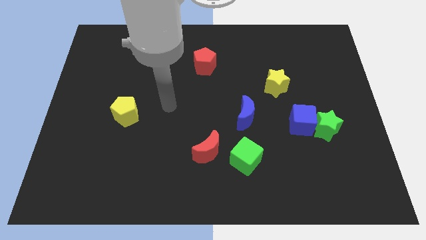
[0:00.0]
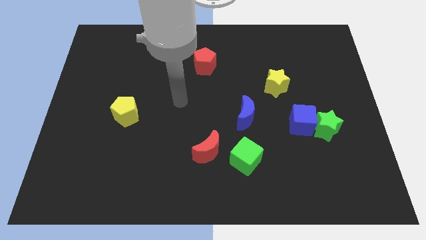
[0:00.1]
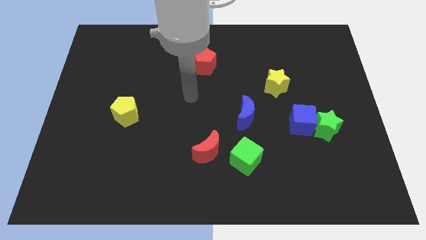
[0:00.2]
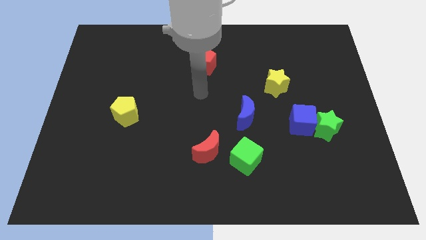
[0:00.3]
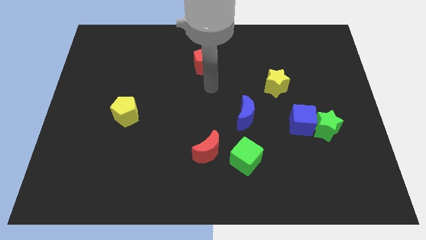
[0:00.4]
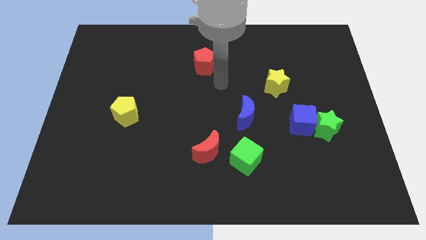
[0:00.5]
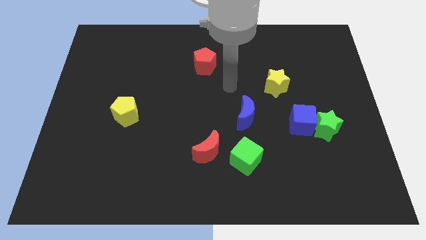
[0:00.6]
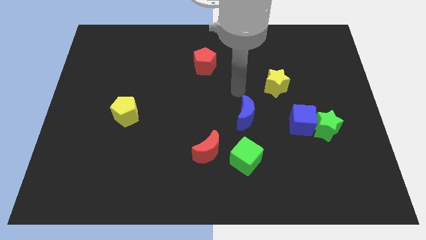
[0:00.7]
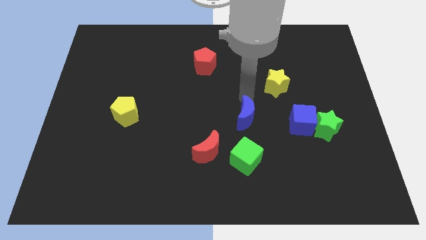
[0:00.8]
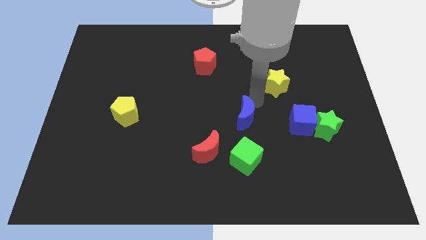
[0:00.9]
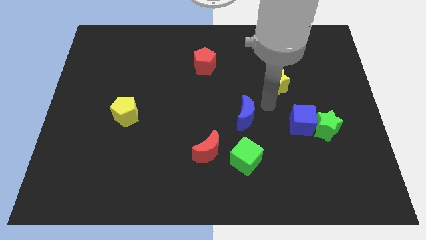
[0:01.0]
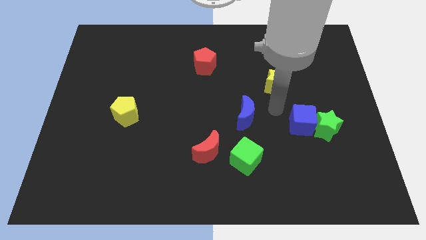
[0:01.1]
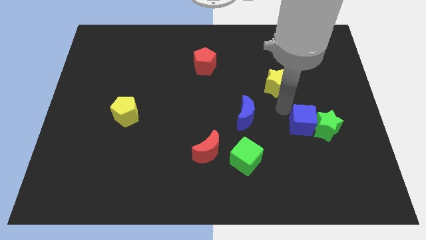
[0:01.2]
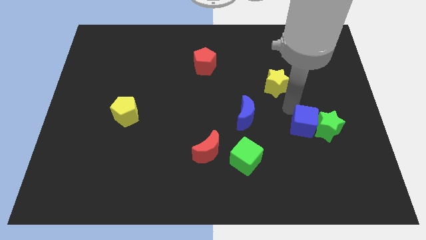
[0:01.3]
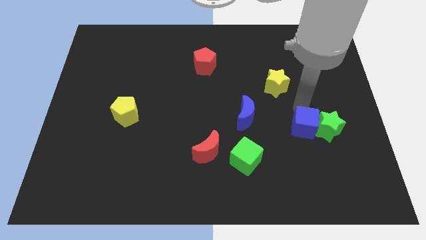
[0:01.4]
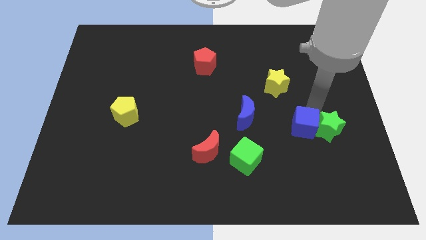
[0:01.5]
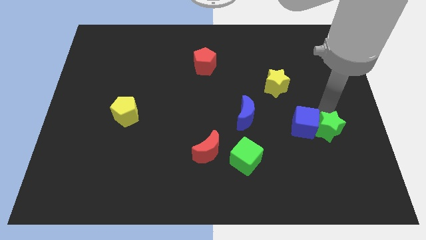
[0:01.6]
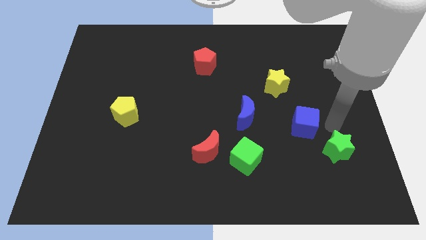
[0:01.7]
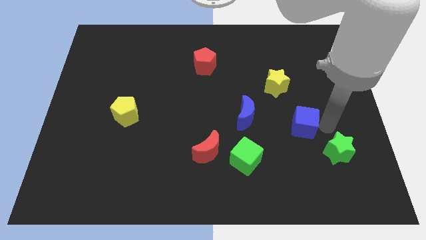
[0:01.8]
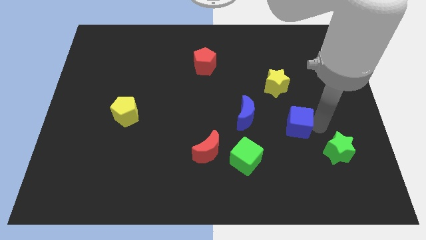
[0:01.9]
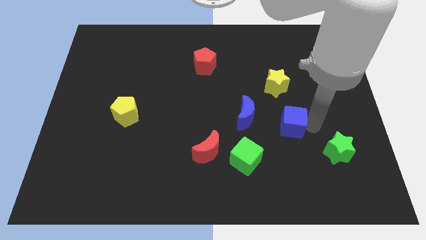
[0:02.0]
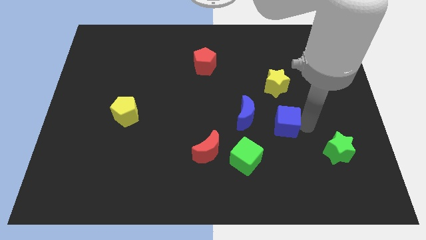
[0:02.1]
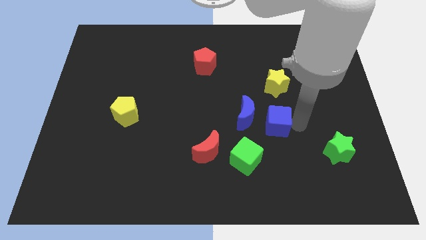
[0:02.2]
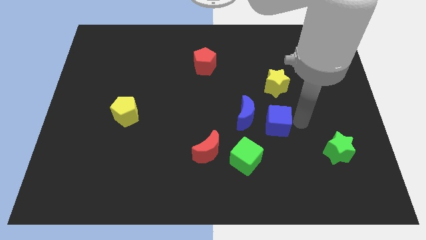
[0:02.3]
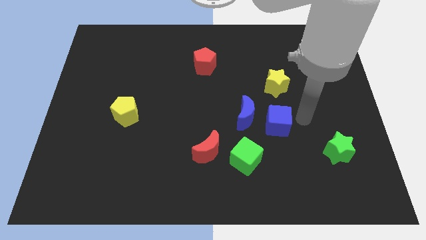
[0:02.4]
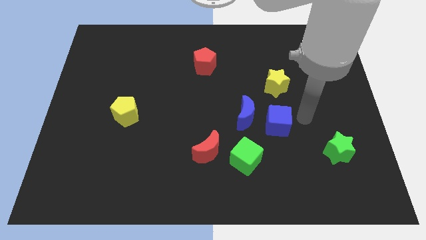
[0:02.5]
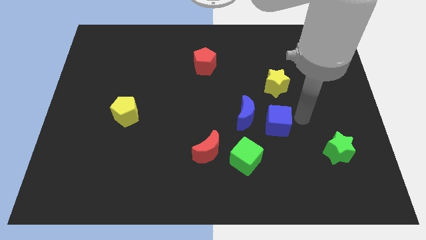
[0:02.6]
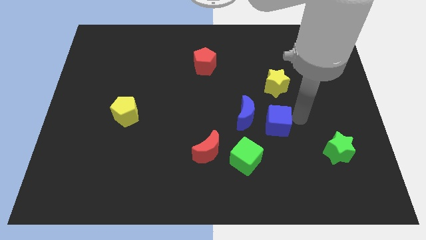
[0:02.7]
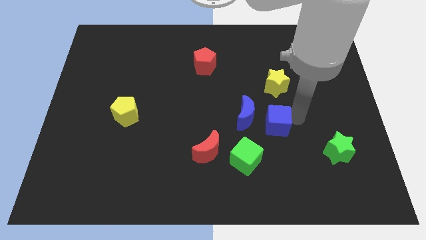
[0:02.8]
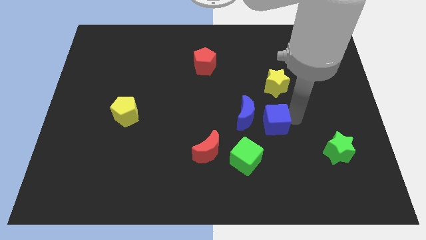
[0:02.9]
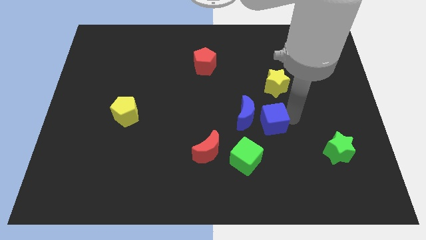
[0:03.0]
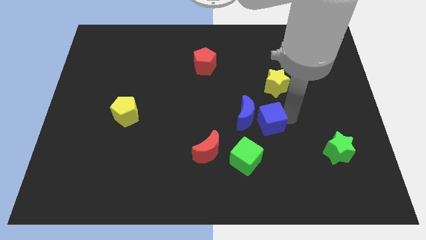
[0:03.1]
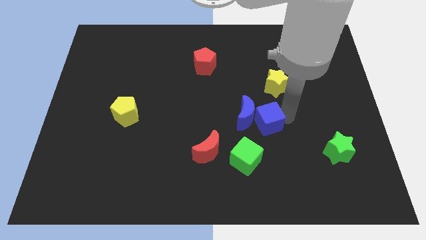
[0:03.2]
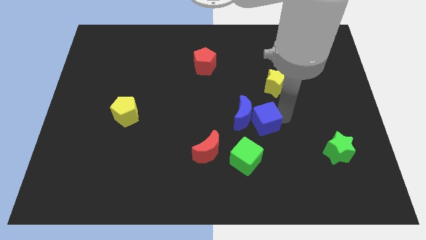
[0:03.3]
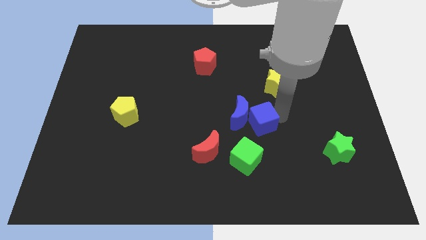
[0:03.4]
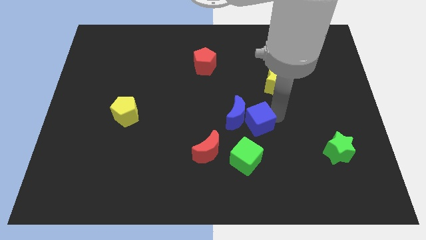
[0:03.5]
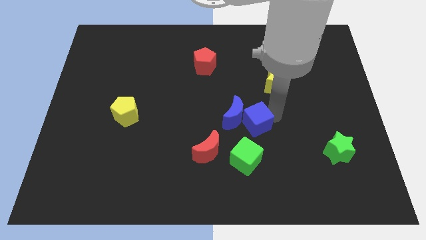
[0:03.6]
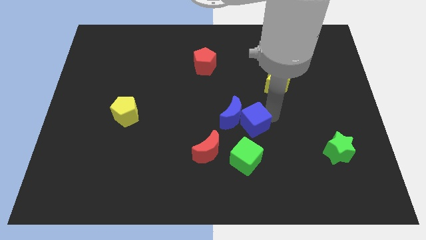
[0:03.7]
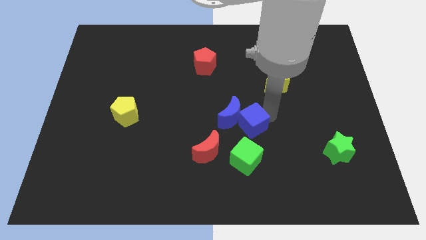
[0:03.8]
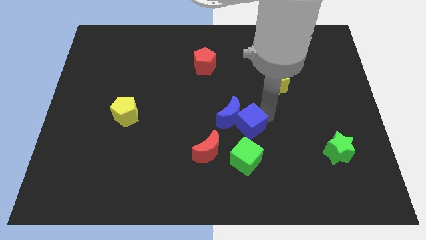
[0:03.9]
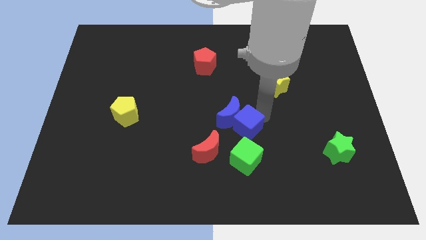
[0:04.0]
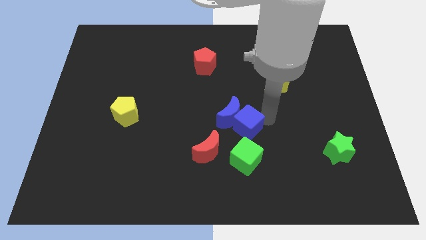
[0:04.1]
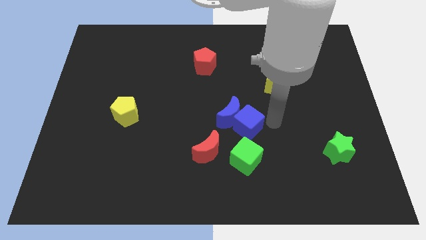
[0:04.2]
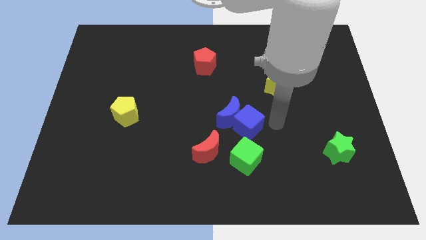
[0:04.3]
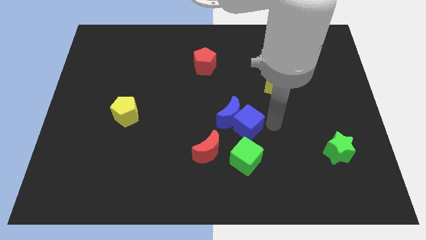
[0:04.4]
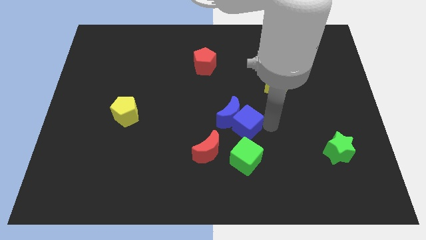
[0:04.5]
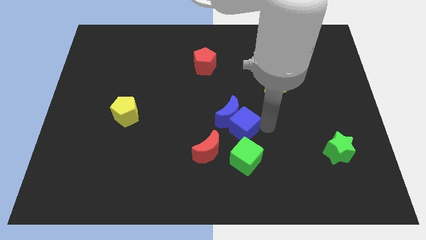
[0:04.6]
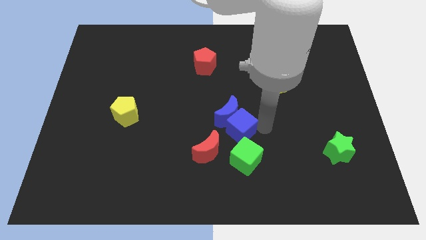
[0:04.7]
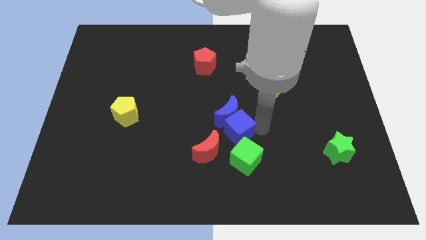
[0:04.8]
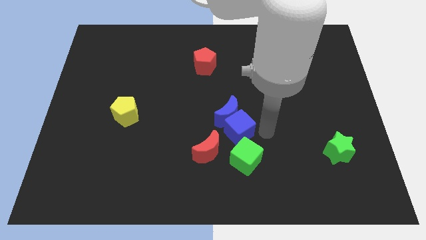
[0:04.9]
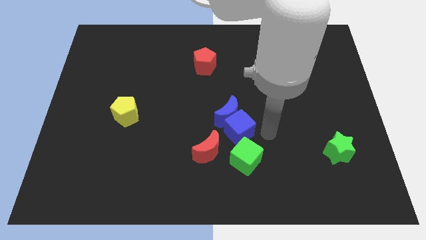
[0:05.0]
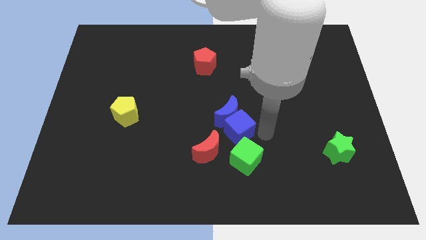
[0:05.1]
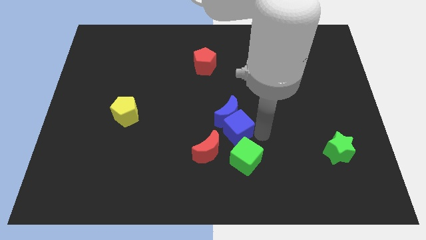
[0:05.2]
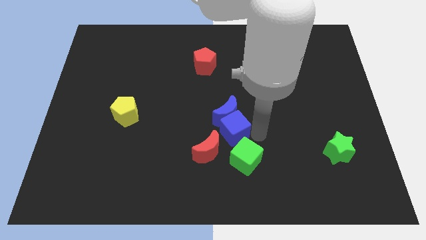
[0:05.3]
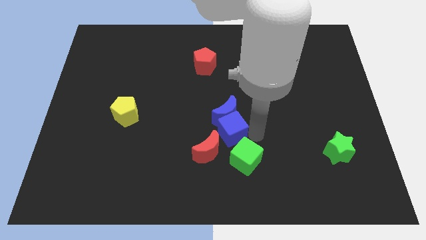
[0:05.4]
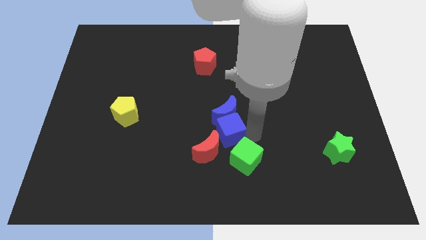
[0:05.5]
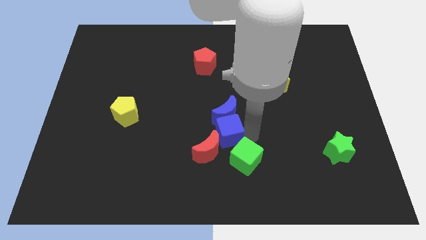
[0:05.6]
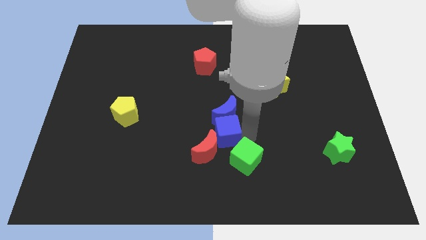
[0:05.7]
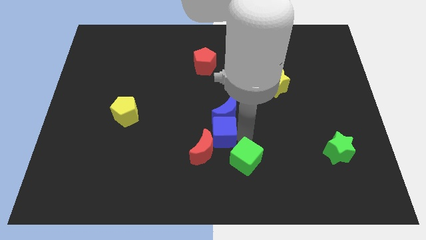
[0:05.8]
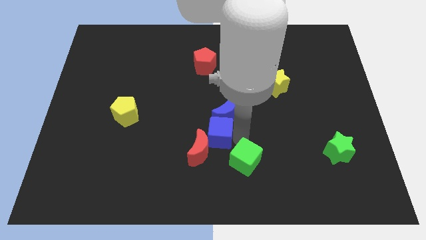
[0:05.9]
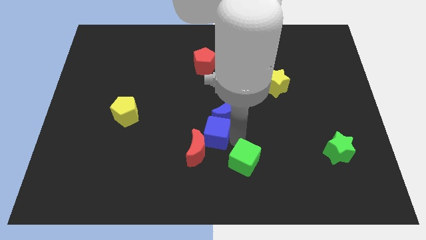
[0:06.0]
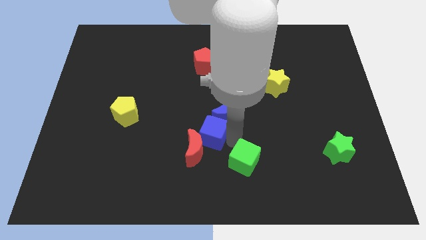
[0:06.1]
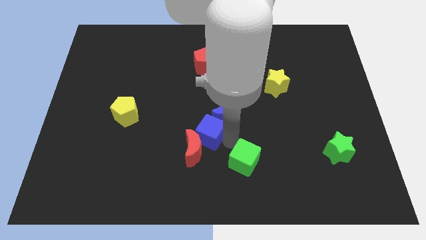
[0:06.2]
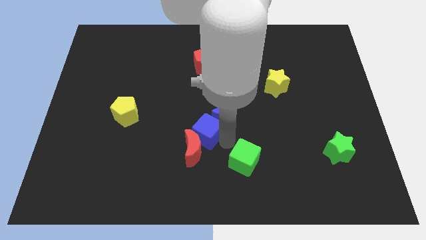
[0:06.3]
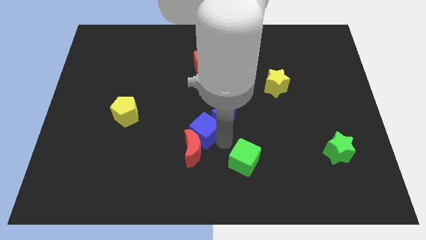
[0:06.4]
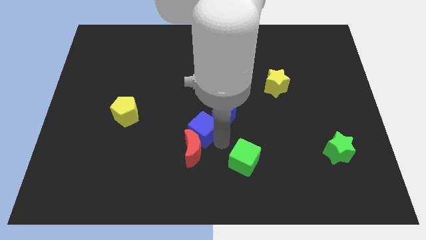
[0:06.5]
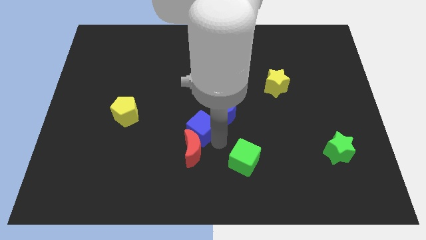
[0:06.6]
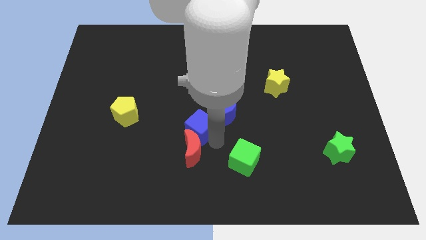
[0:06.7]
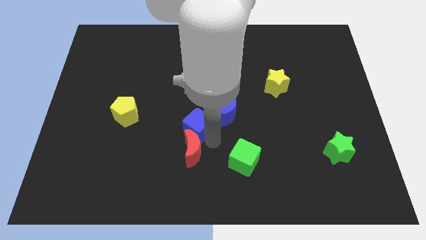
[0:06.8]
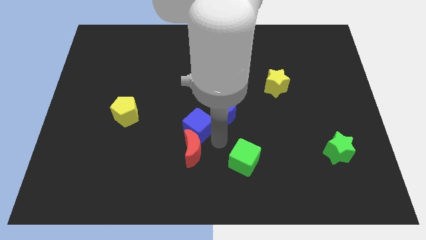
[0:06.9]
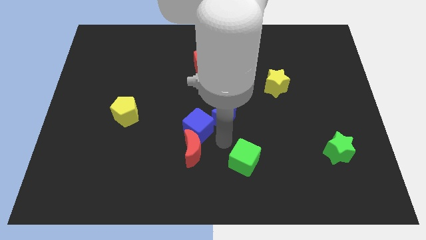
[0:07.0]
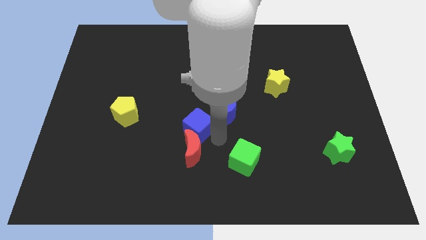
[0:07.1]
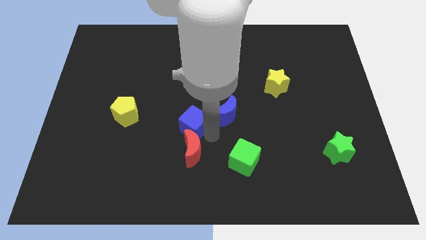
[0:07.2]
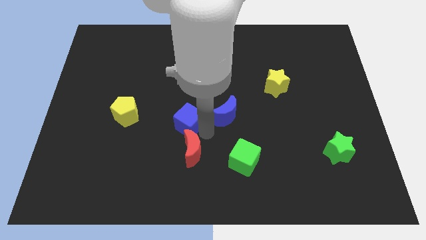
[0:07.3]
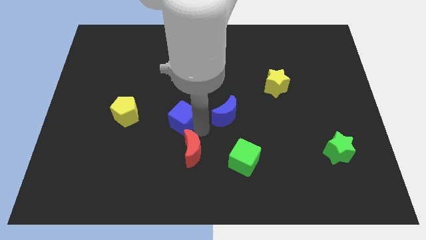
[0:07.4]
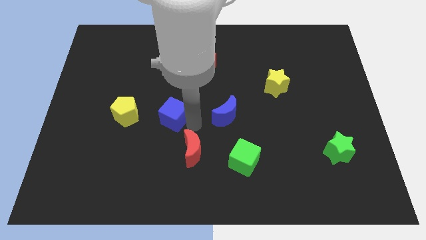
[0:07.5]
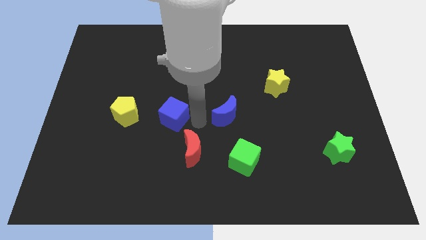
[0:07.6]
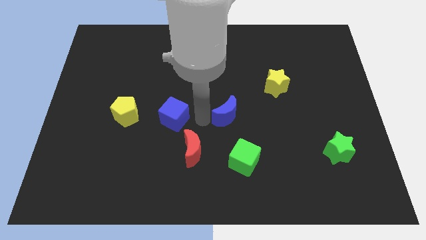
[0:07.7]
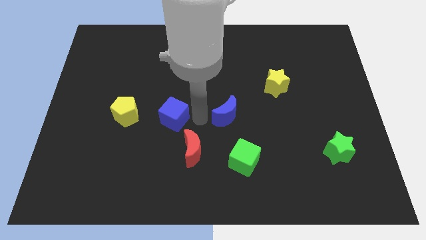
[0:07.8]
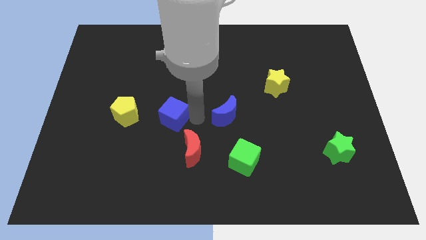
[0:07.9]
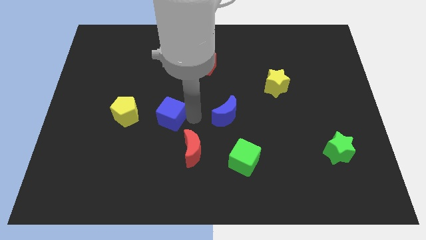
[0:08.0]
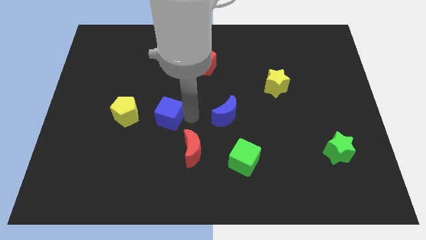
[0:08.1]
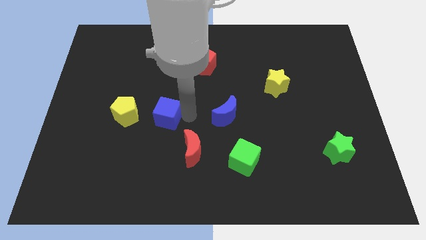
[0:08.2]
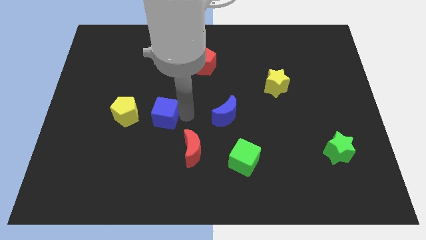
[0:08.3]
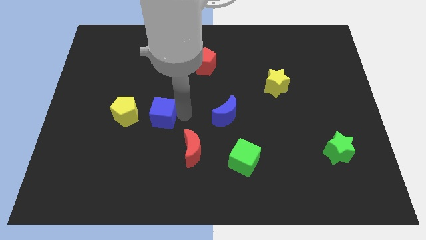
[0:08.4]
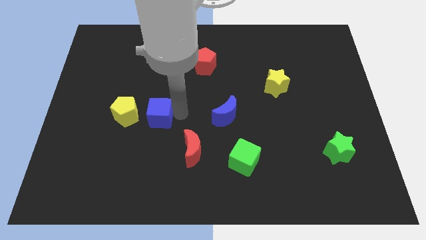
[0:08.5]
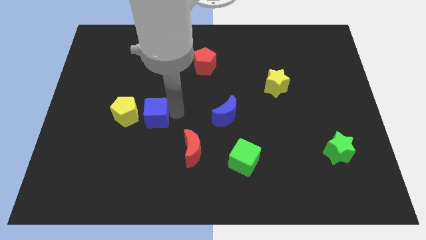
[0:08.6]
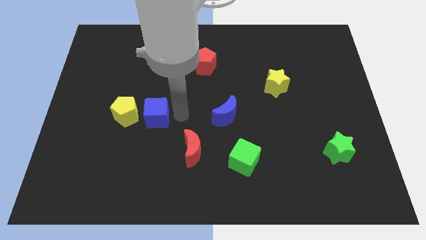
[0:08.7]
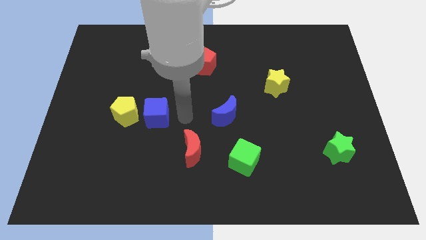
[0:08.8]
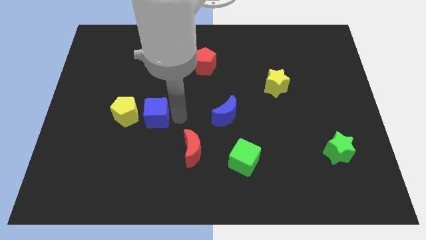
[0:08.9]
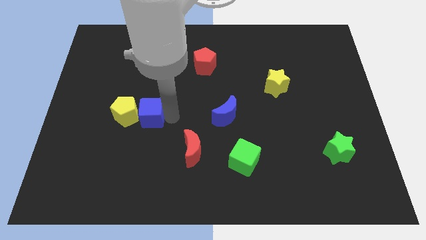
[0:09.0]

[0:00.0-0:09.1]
push the blue cube close to the yellow pentagon
